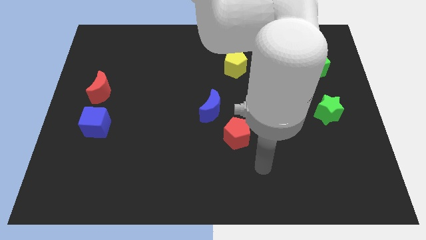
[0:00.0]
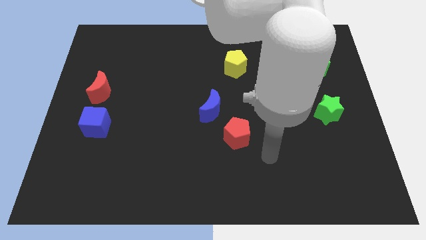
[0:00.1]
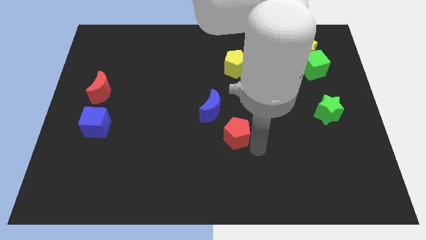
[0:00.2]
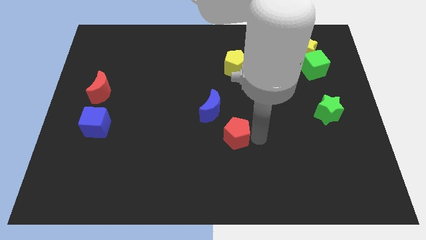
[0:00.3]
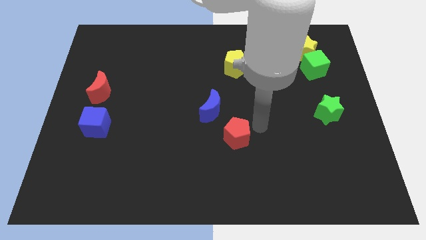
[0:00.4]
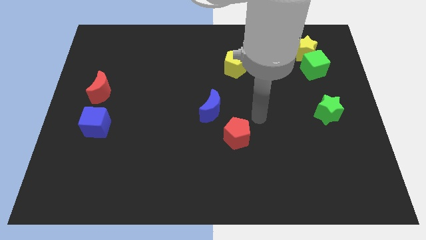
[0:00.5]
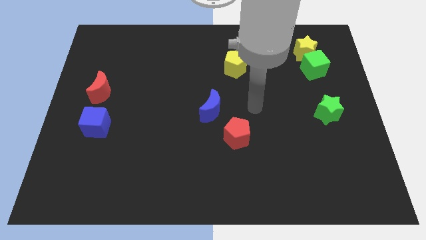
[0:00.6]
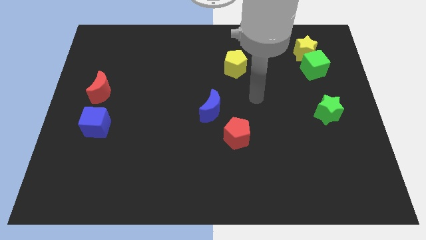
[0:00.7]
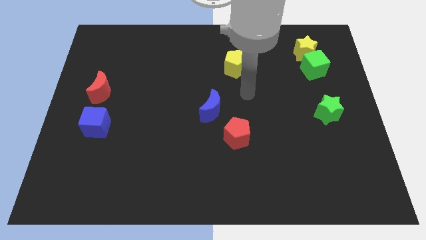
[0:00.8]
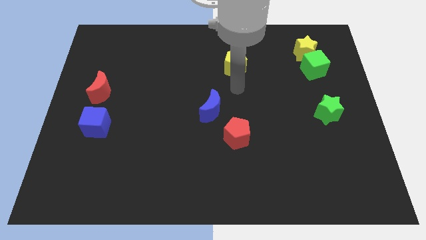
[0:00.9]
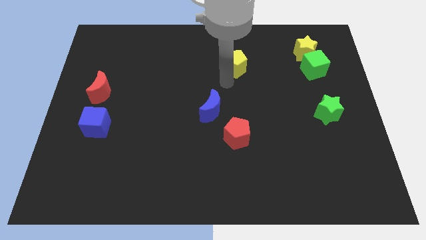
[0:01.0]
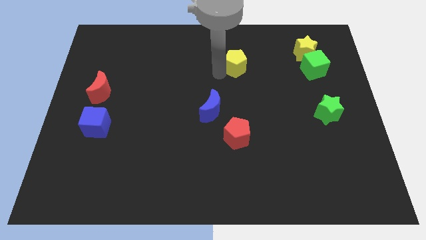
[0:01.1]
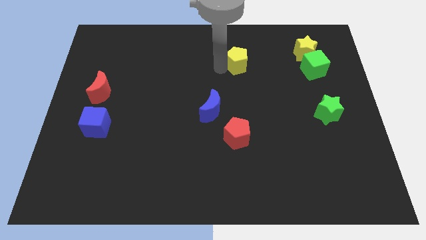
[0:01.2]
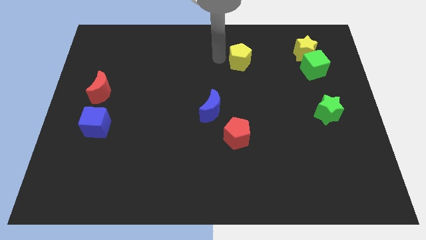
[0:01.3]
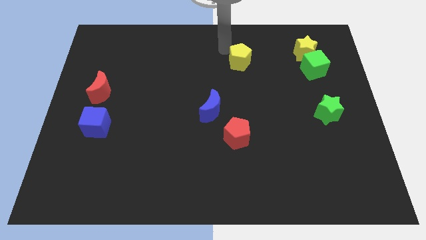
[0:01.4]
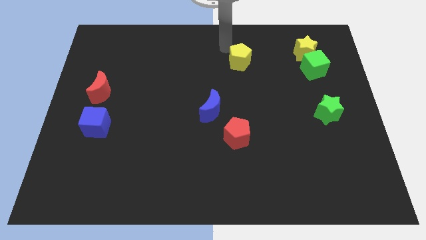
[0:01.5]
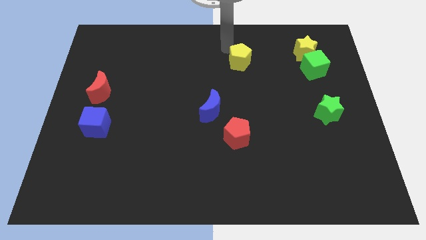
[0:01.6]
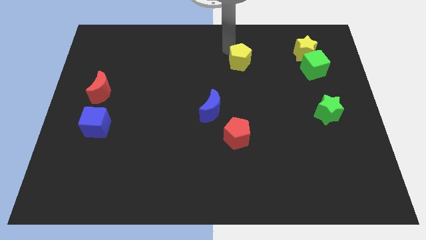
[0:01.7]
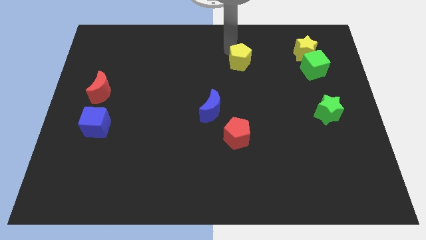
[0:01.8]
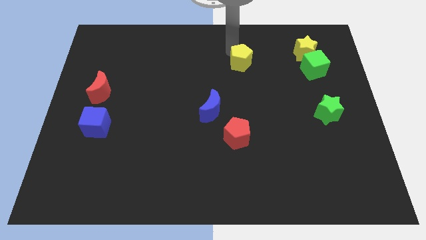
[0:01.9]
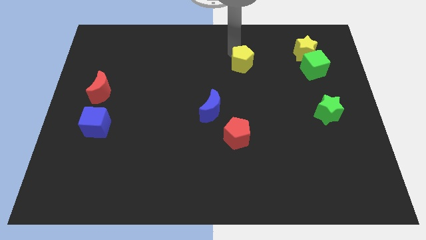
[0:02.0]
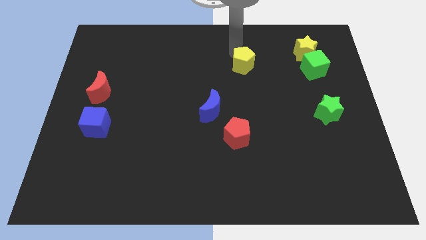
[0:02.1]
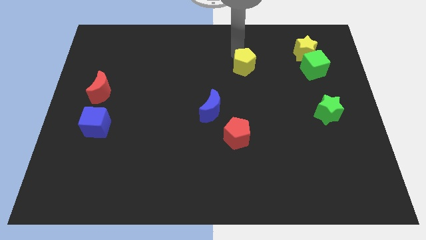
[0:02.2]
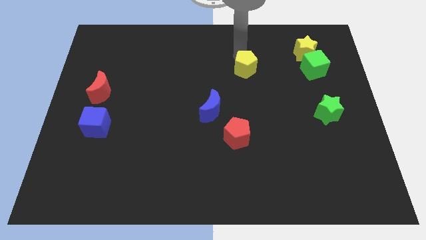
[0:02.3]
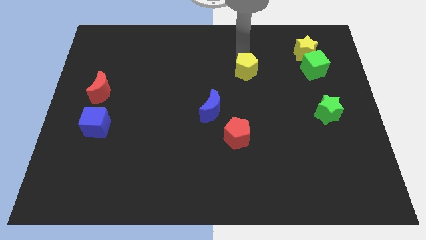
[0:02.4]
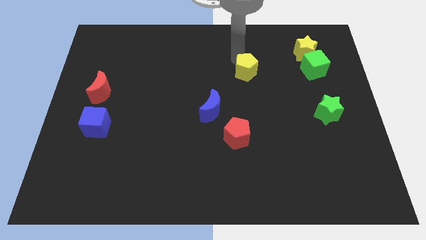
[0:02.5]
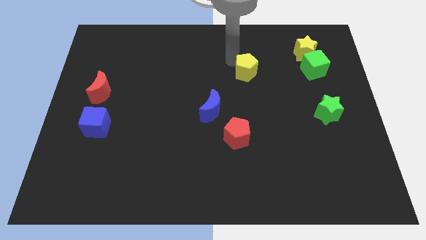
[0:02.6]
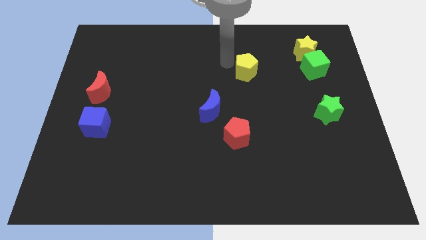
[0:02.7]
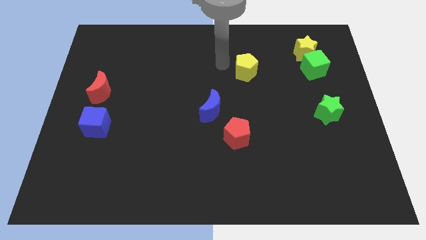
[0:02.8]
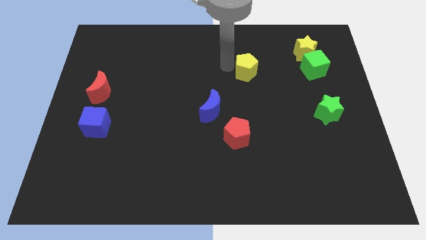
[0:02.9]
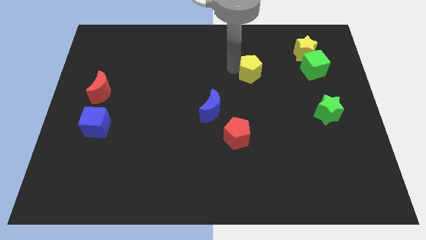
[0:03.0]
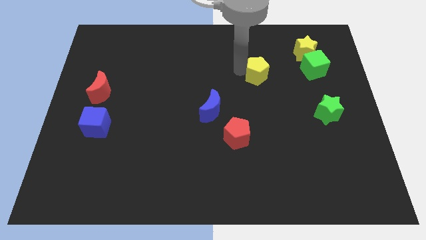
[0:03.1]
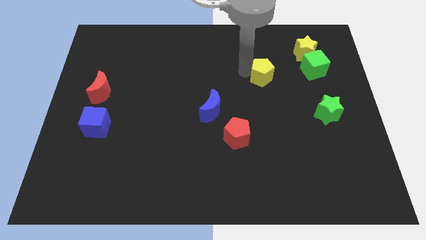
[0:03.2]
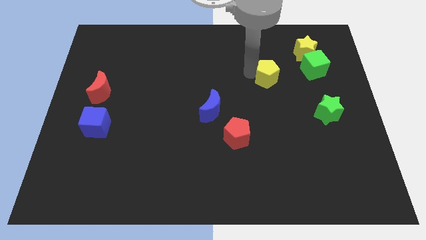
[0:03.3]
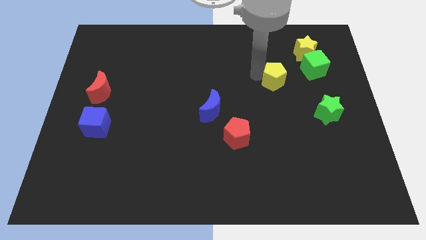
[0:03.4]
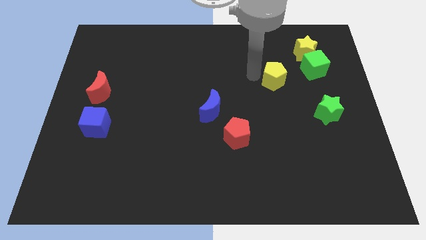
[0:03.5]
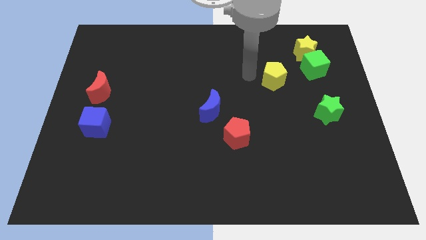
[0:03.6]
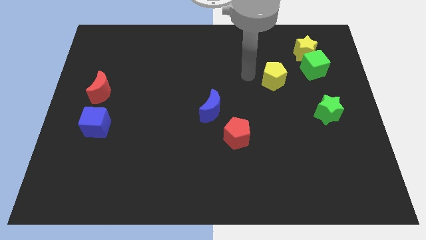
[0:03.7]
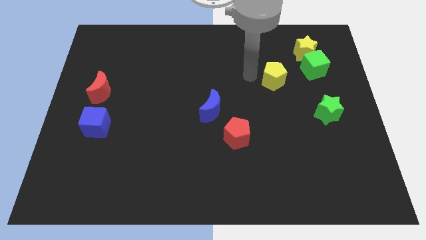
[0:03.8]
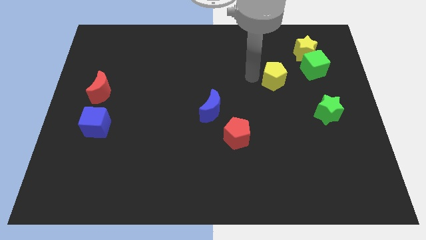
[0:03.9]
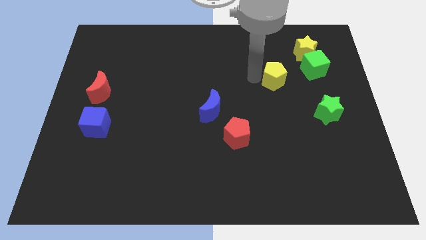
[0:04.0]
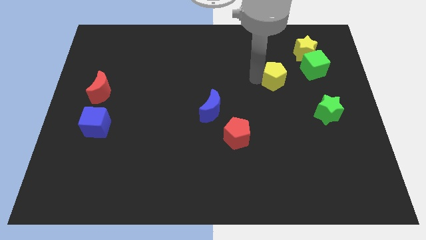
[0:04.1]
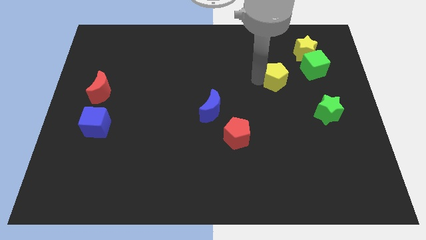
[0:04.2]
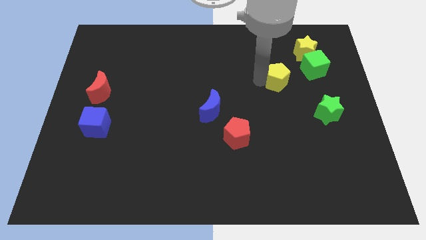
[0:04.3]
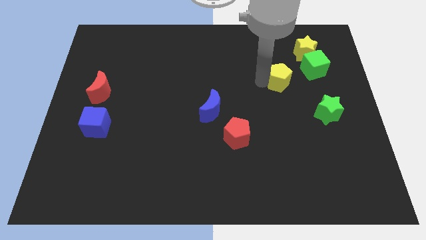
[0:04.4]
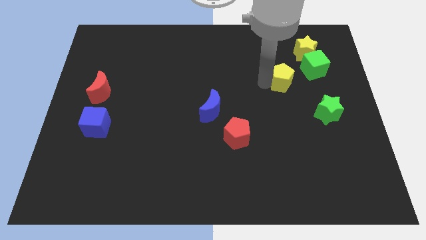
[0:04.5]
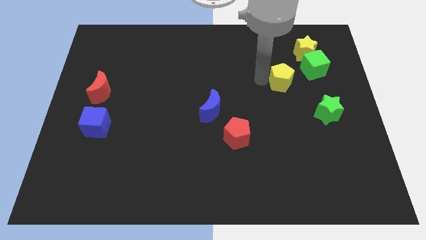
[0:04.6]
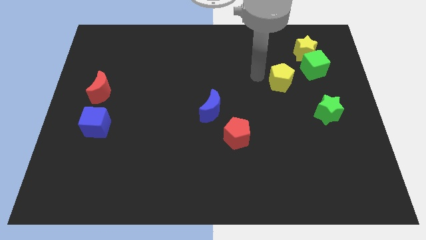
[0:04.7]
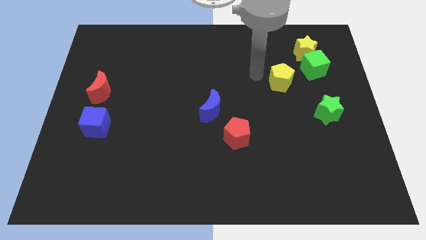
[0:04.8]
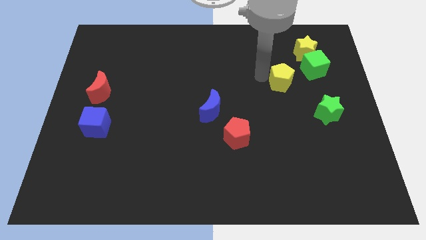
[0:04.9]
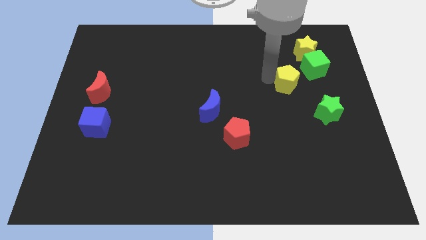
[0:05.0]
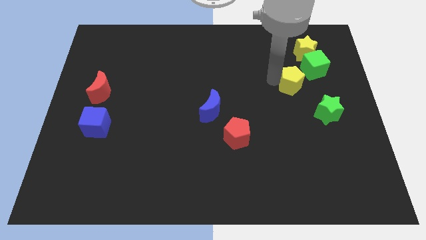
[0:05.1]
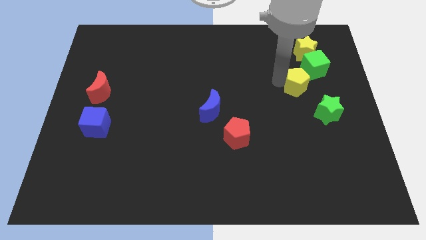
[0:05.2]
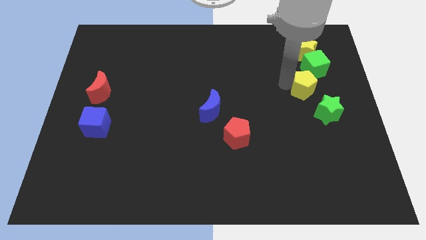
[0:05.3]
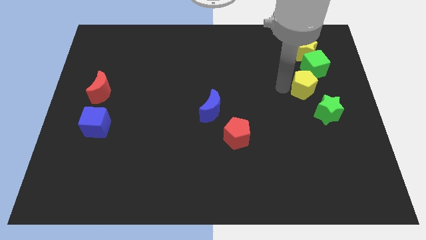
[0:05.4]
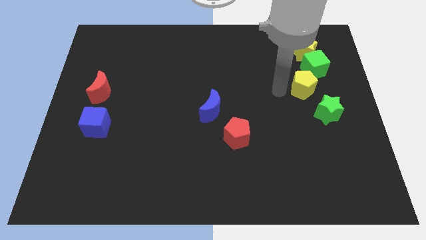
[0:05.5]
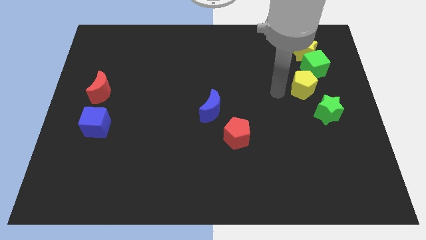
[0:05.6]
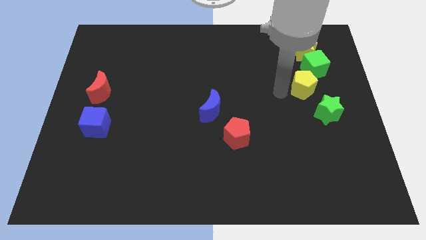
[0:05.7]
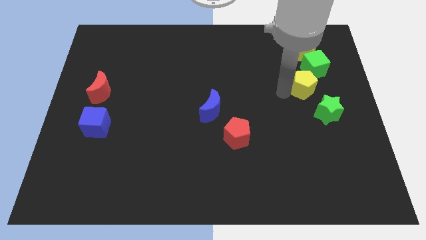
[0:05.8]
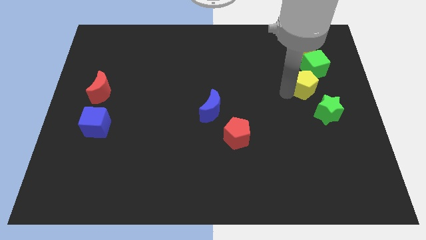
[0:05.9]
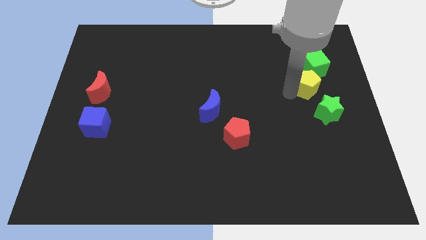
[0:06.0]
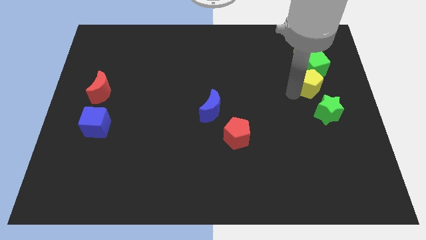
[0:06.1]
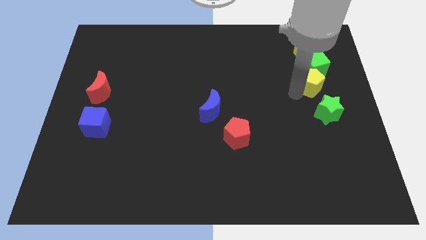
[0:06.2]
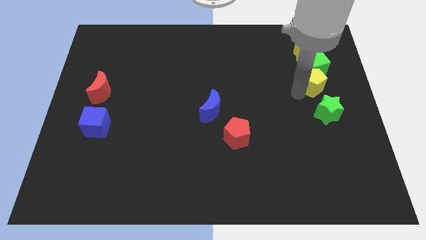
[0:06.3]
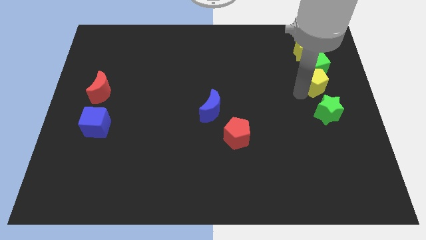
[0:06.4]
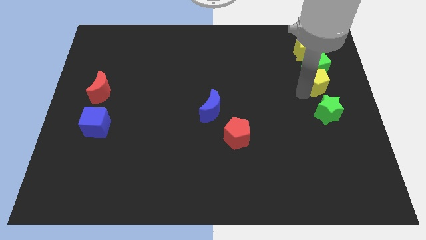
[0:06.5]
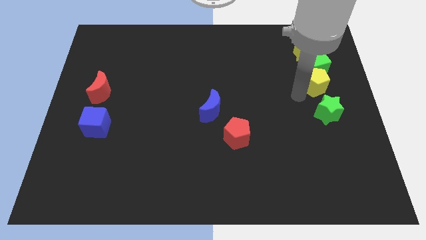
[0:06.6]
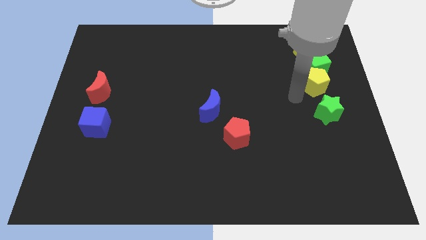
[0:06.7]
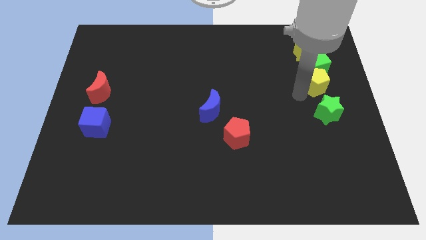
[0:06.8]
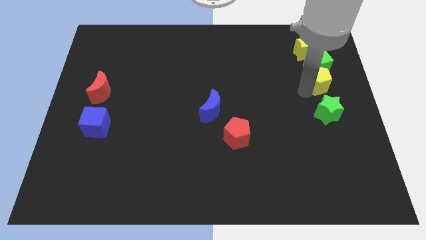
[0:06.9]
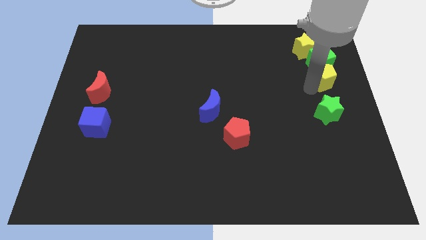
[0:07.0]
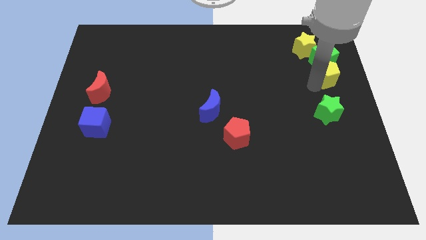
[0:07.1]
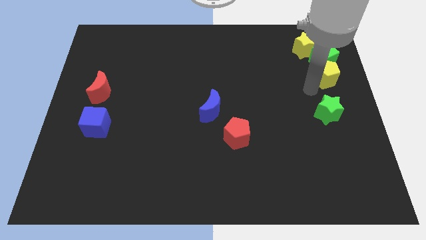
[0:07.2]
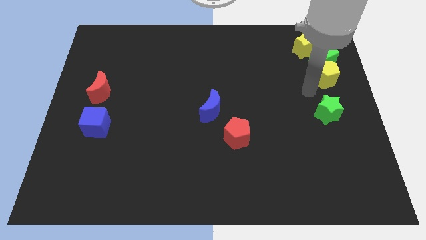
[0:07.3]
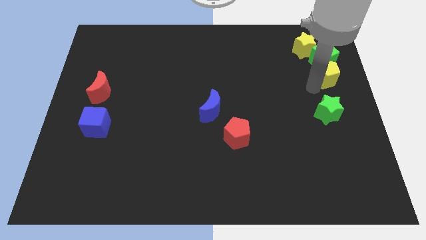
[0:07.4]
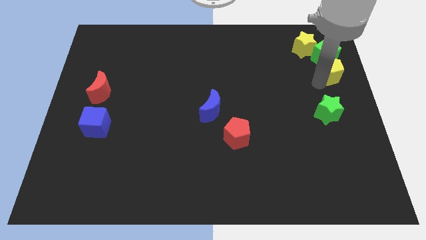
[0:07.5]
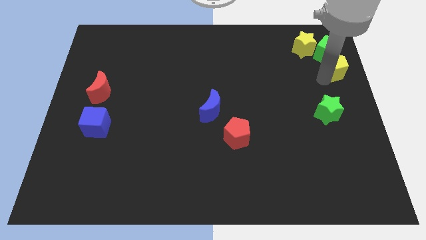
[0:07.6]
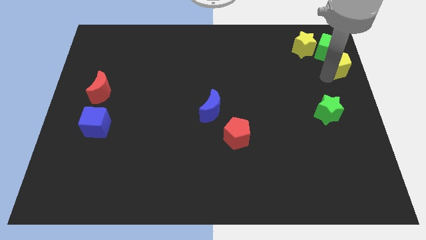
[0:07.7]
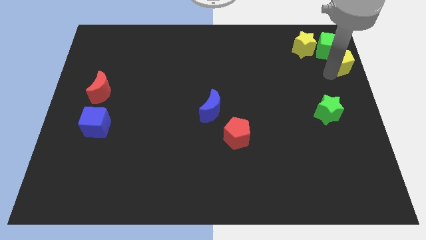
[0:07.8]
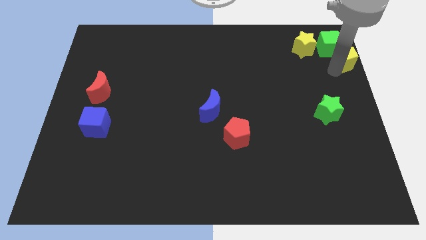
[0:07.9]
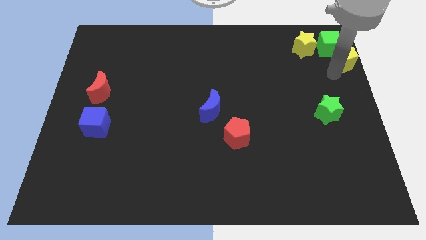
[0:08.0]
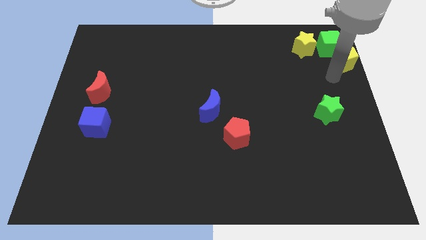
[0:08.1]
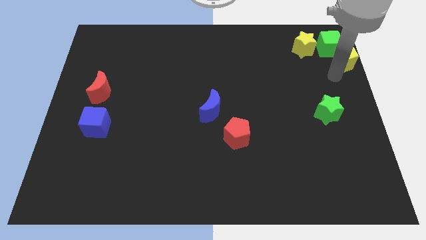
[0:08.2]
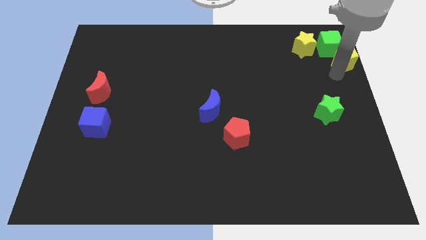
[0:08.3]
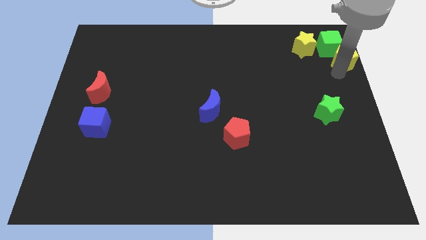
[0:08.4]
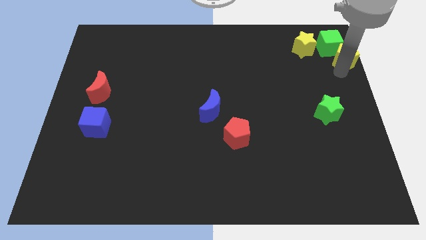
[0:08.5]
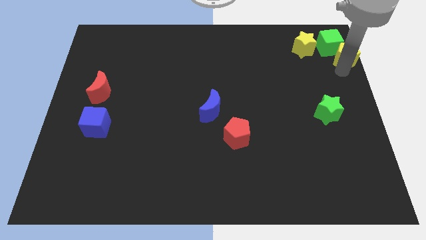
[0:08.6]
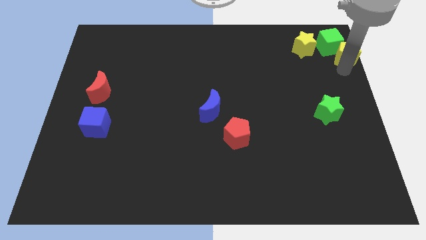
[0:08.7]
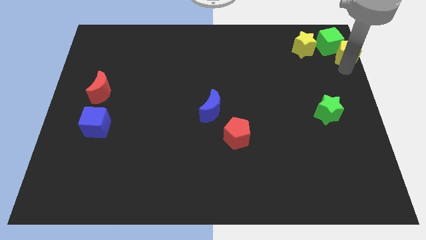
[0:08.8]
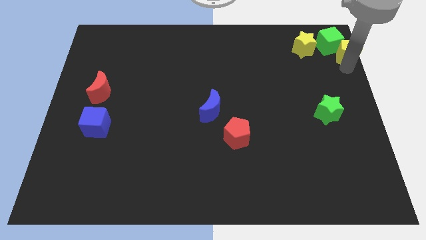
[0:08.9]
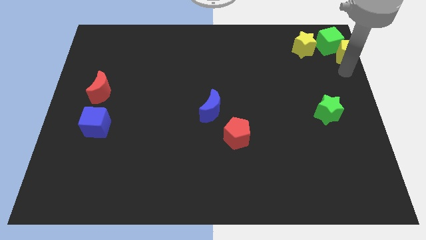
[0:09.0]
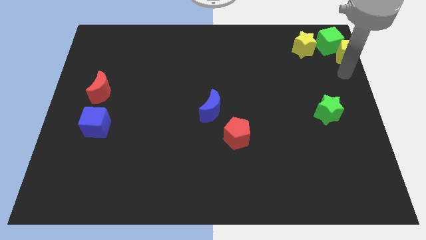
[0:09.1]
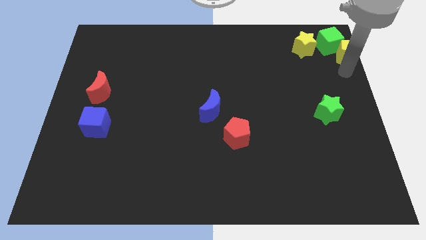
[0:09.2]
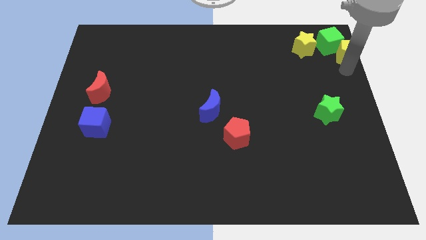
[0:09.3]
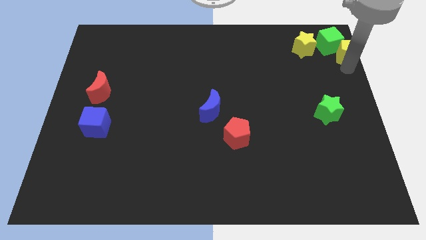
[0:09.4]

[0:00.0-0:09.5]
slide the yellow pentagon to the top right of the board
